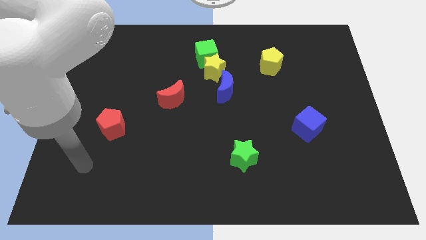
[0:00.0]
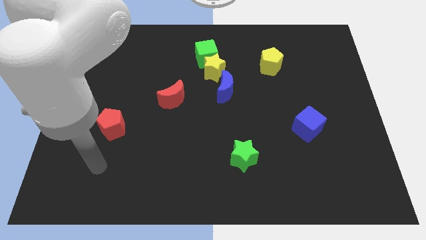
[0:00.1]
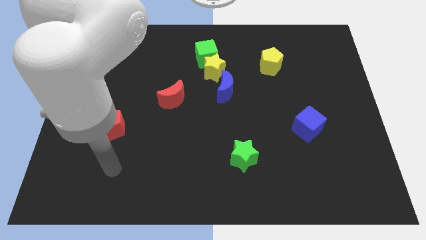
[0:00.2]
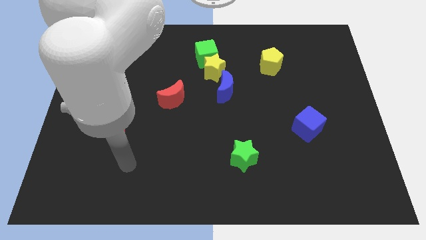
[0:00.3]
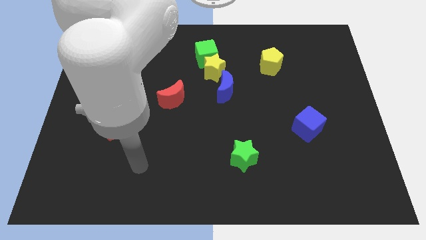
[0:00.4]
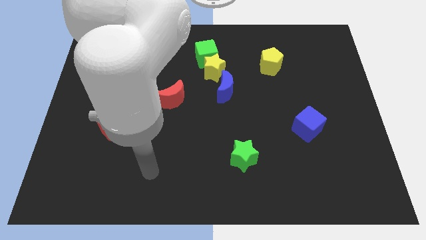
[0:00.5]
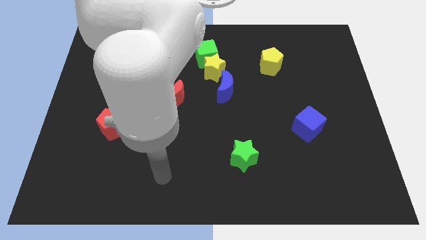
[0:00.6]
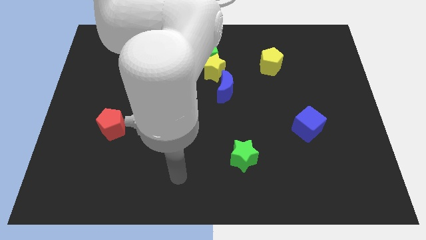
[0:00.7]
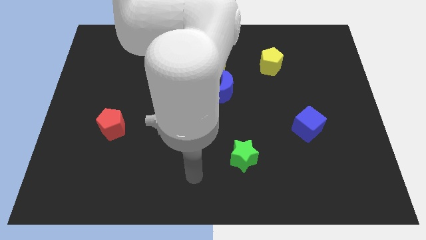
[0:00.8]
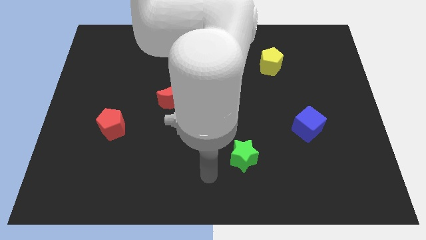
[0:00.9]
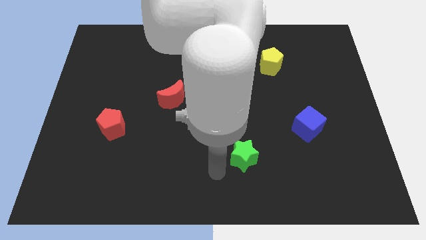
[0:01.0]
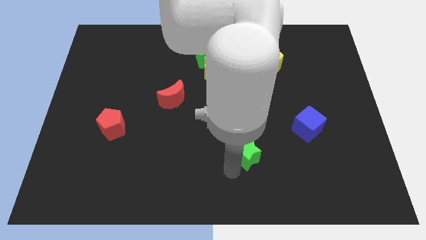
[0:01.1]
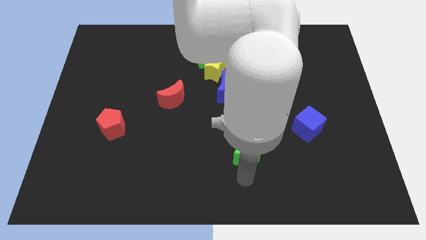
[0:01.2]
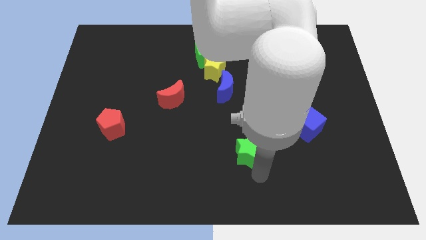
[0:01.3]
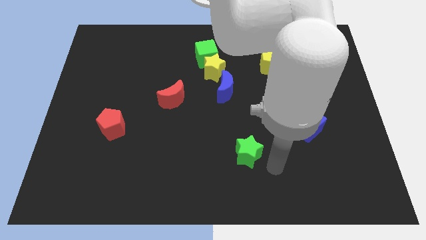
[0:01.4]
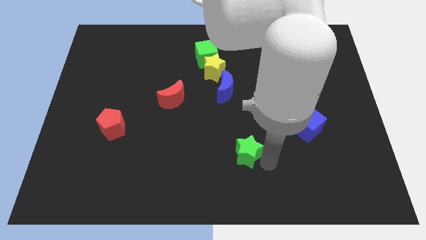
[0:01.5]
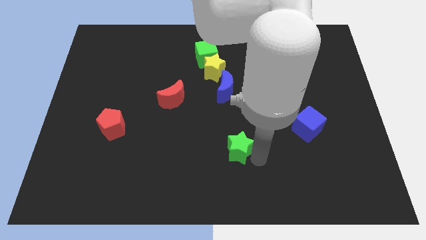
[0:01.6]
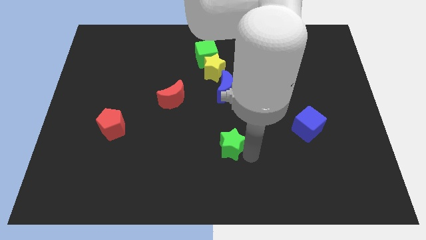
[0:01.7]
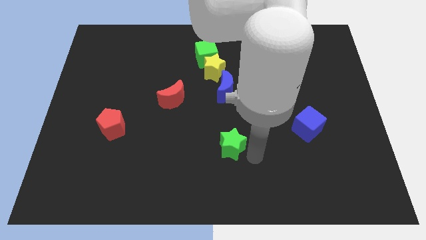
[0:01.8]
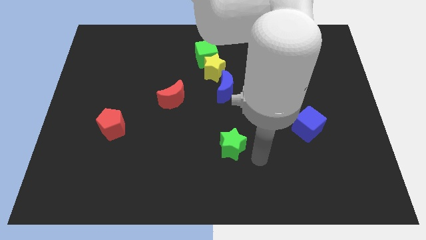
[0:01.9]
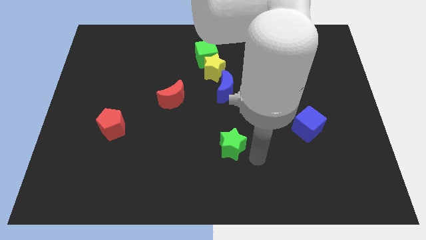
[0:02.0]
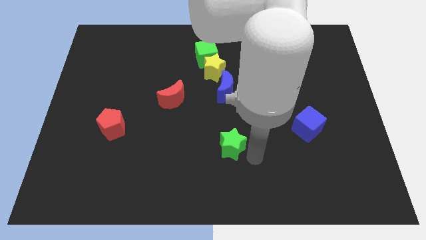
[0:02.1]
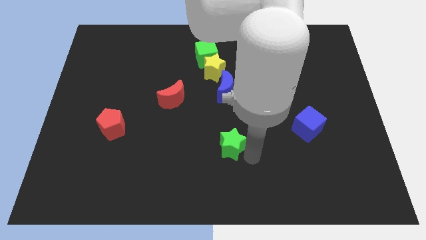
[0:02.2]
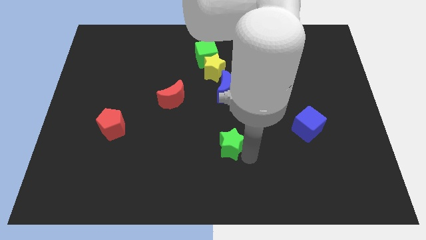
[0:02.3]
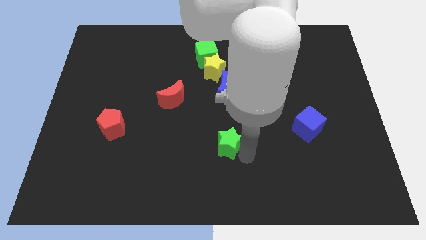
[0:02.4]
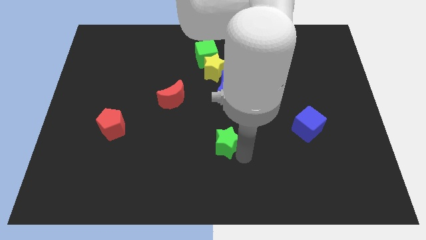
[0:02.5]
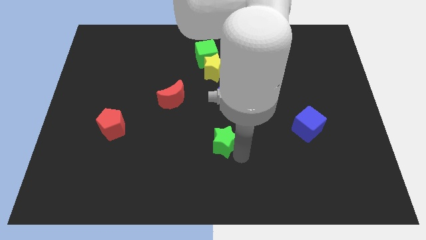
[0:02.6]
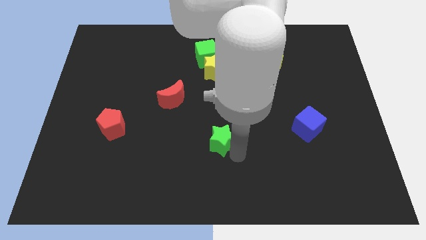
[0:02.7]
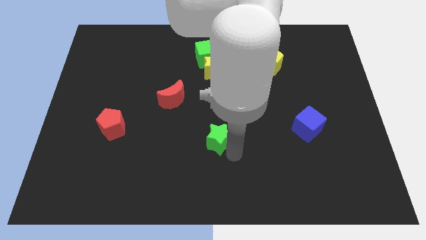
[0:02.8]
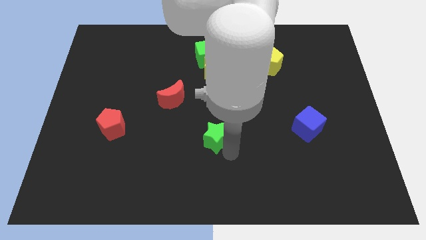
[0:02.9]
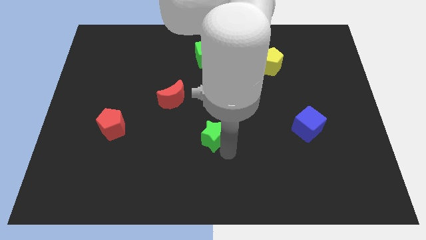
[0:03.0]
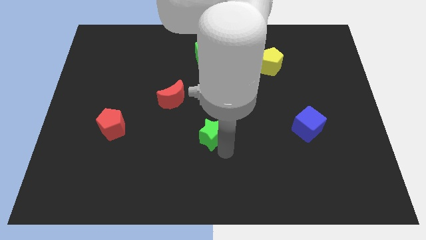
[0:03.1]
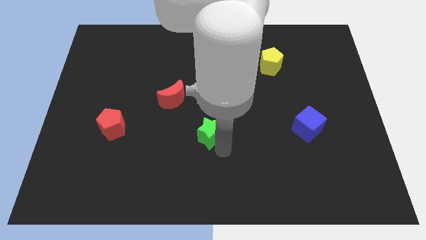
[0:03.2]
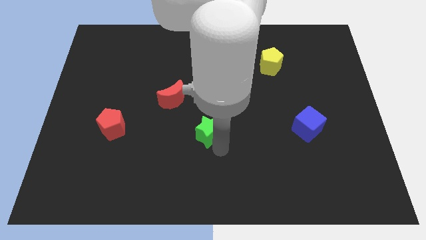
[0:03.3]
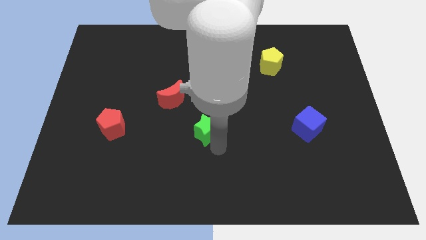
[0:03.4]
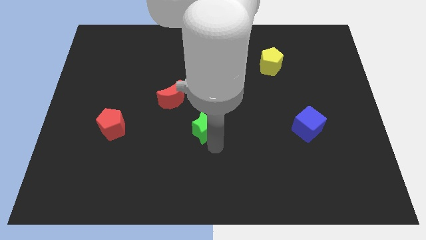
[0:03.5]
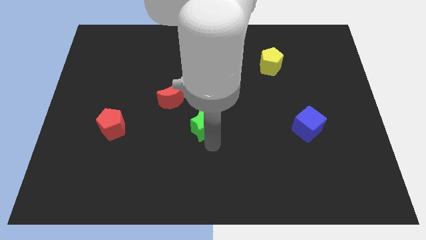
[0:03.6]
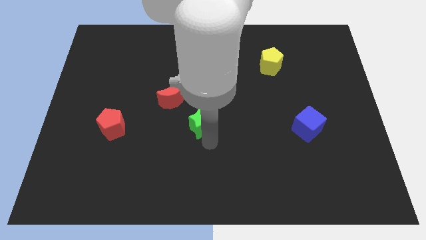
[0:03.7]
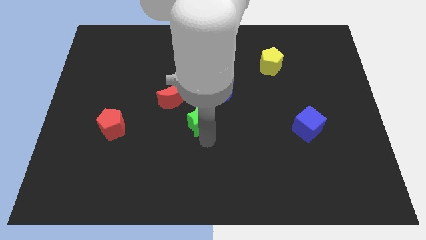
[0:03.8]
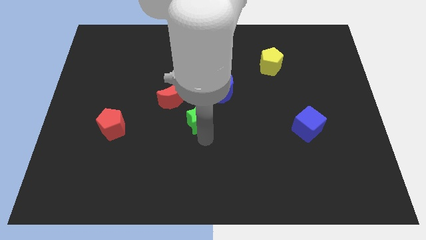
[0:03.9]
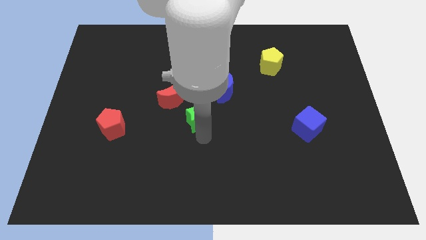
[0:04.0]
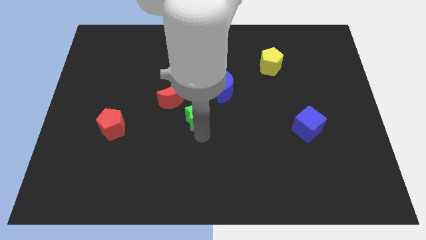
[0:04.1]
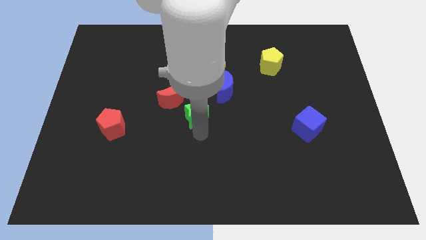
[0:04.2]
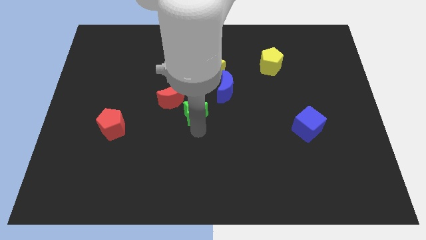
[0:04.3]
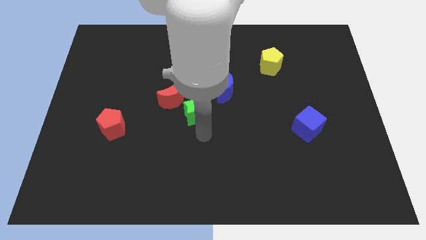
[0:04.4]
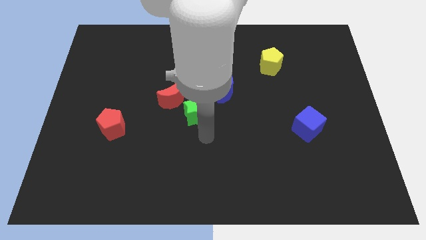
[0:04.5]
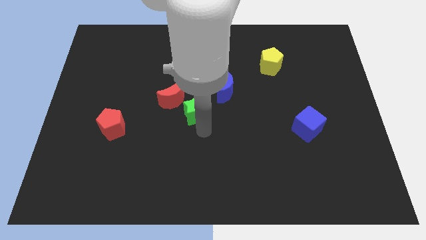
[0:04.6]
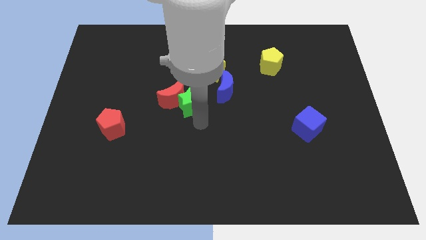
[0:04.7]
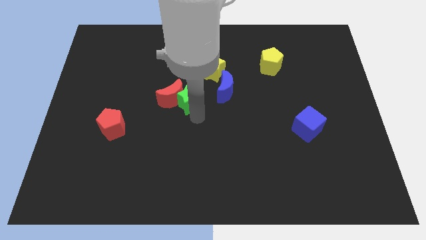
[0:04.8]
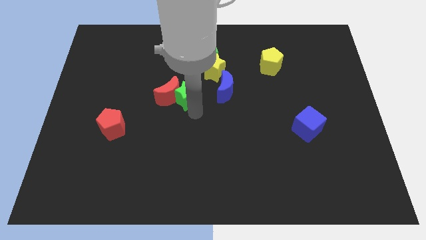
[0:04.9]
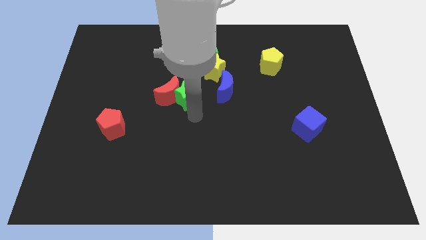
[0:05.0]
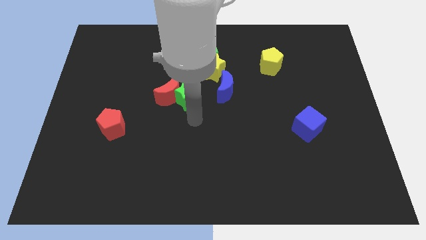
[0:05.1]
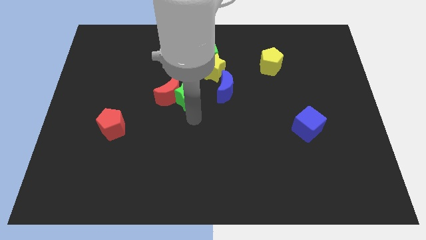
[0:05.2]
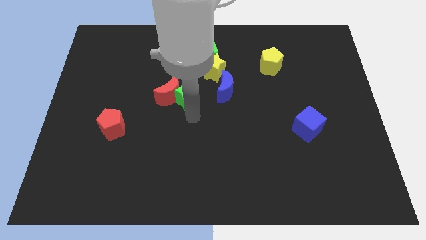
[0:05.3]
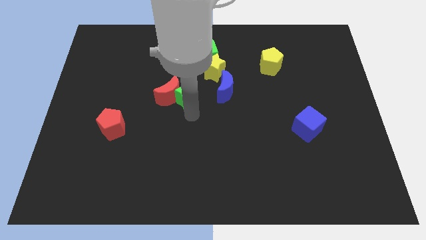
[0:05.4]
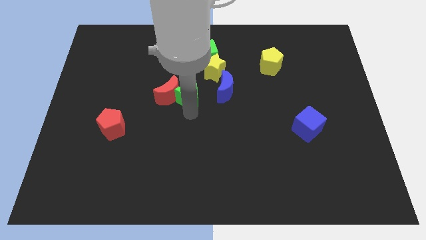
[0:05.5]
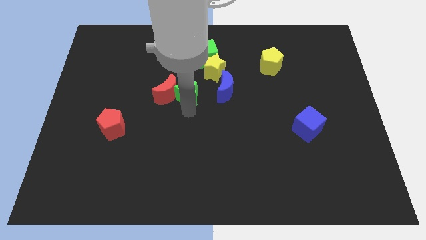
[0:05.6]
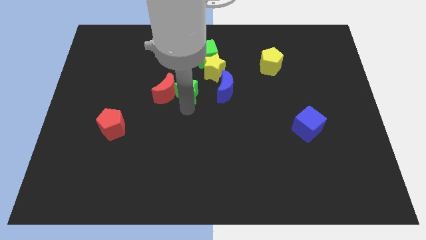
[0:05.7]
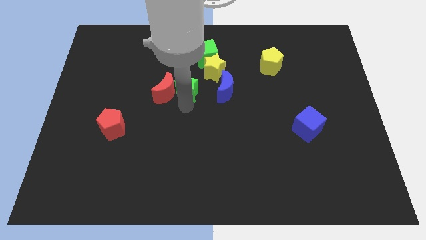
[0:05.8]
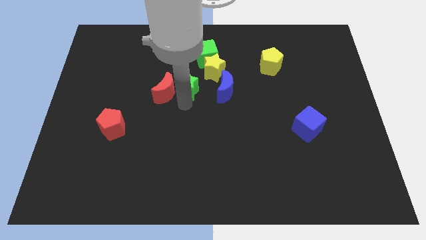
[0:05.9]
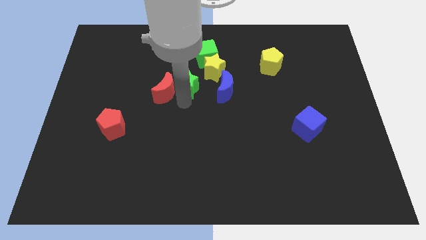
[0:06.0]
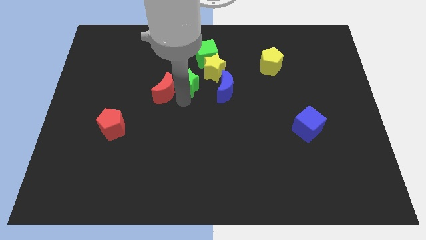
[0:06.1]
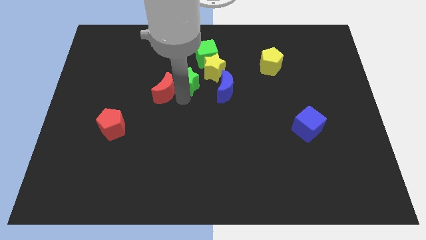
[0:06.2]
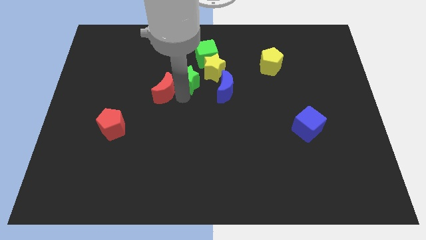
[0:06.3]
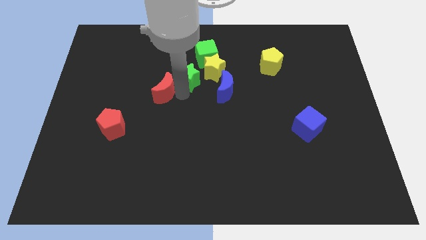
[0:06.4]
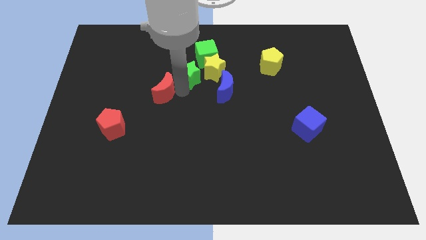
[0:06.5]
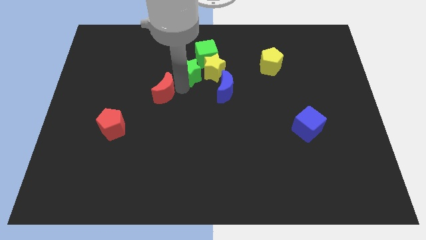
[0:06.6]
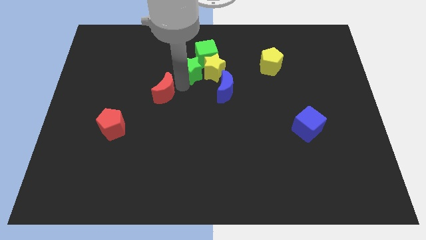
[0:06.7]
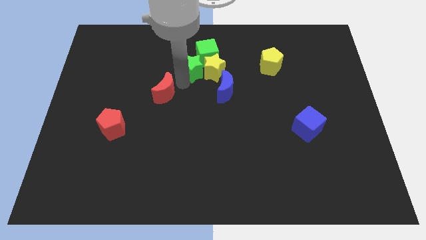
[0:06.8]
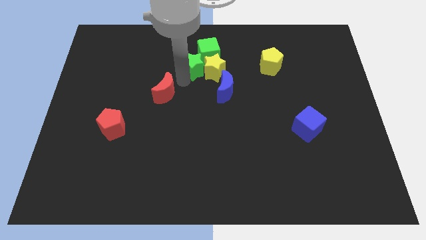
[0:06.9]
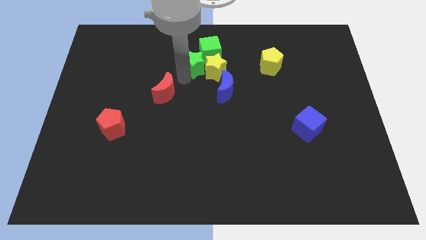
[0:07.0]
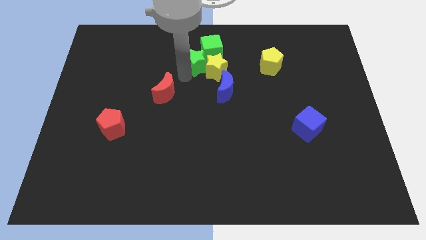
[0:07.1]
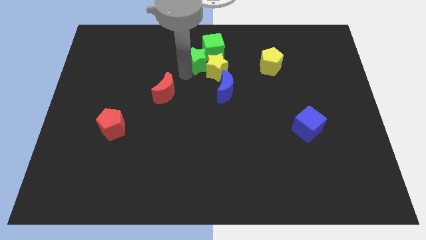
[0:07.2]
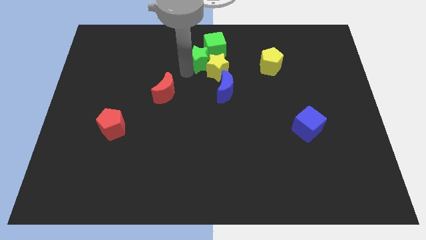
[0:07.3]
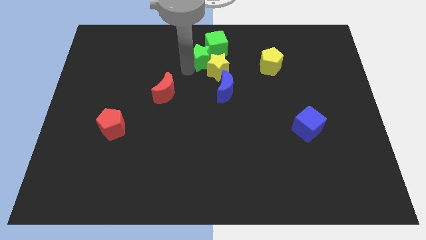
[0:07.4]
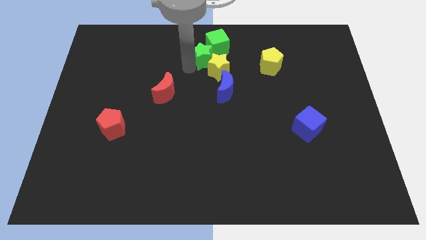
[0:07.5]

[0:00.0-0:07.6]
slide the green star next to the green cube
